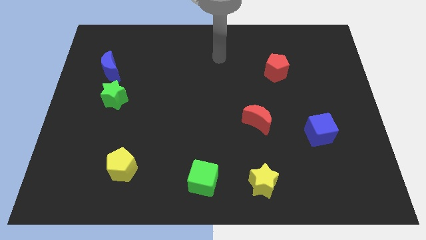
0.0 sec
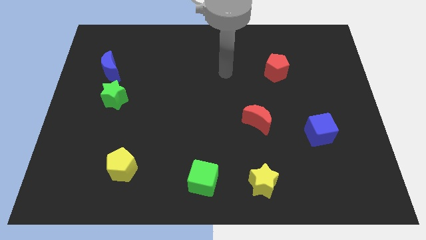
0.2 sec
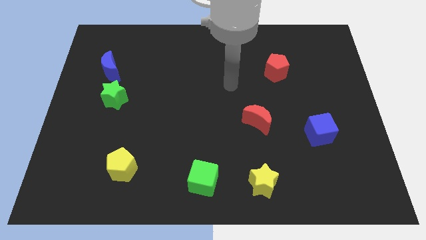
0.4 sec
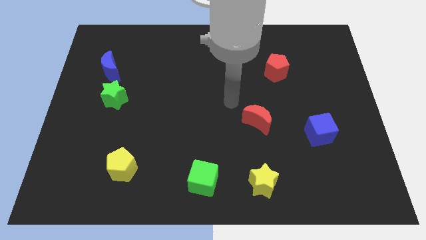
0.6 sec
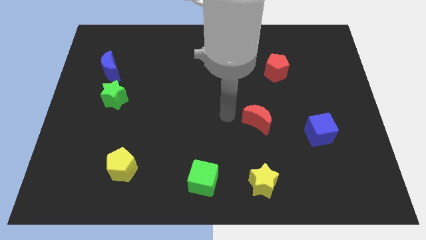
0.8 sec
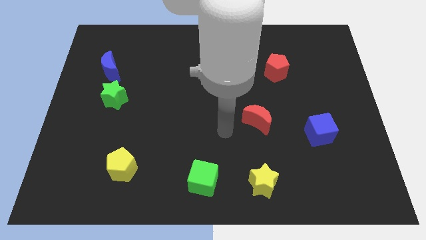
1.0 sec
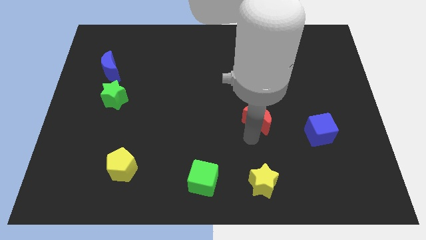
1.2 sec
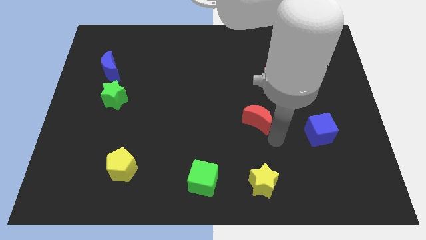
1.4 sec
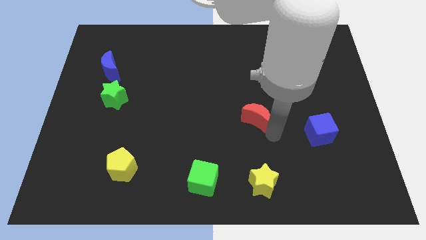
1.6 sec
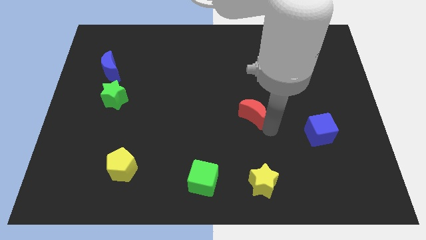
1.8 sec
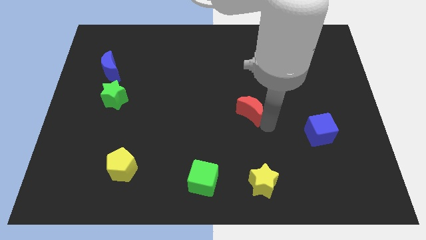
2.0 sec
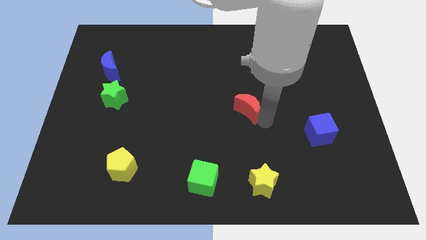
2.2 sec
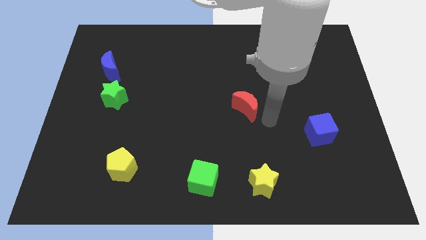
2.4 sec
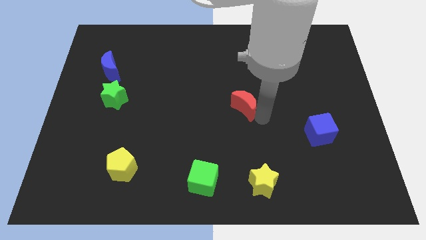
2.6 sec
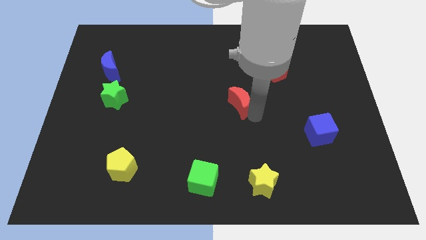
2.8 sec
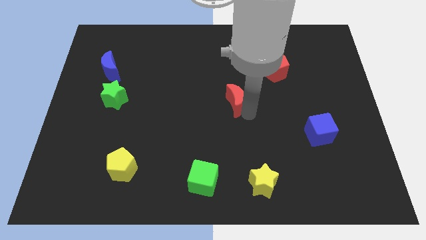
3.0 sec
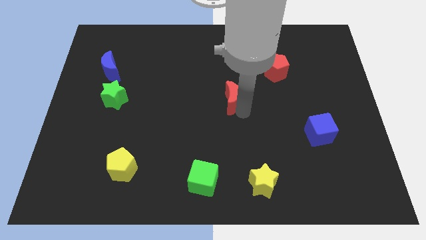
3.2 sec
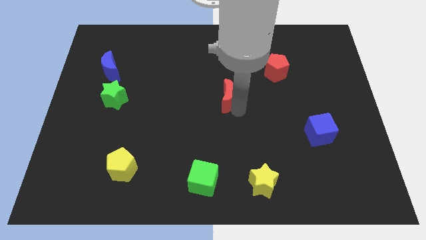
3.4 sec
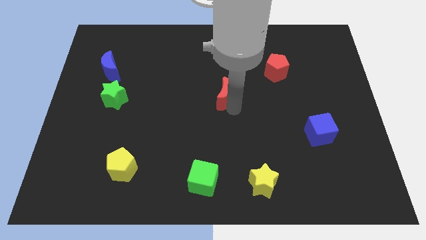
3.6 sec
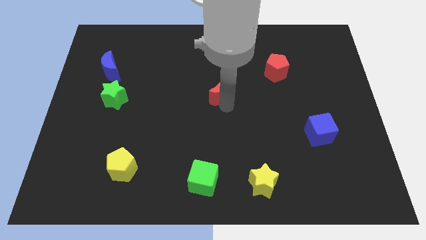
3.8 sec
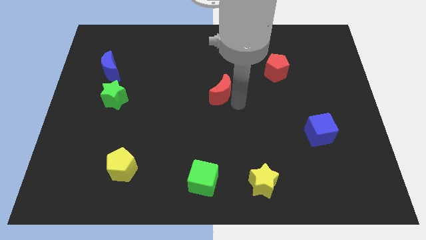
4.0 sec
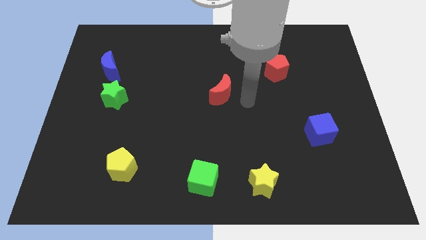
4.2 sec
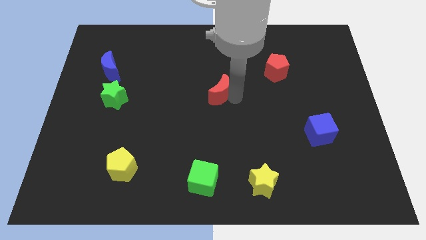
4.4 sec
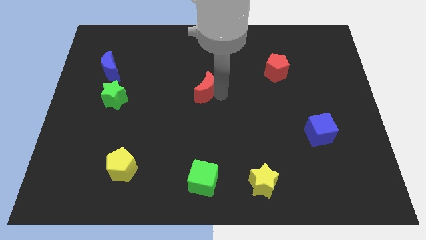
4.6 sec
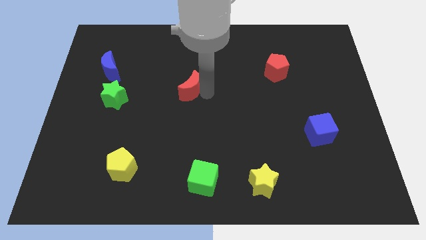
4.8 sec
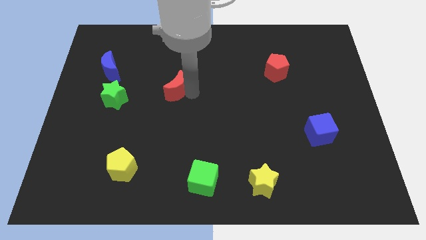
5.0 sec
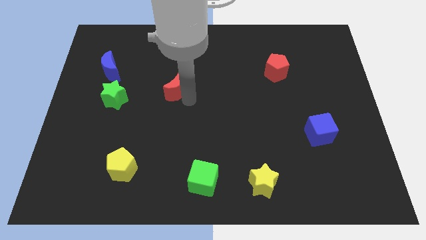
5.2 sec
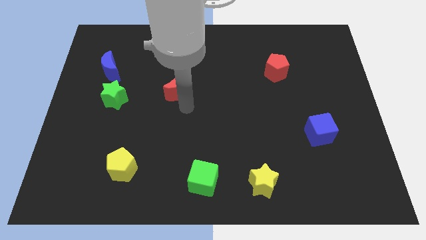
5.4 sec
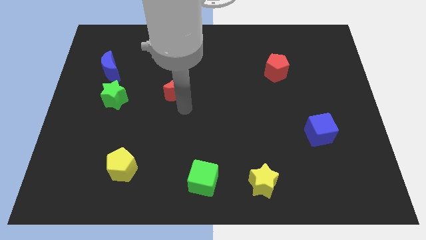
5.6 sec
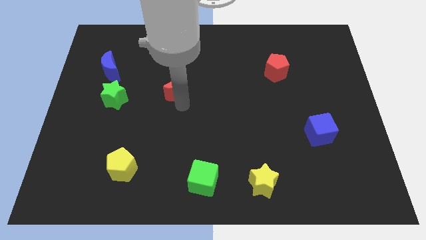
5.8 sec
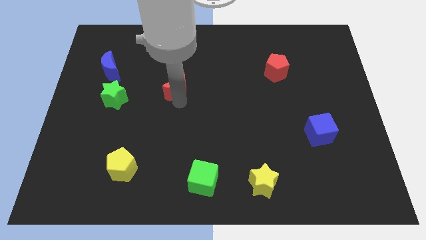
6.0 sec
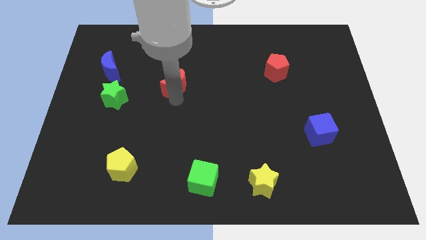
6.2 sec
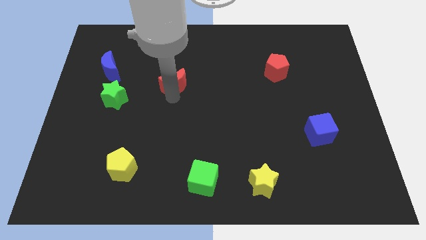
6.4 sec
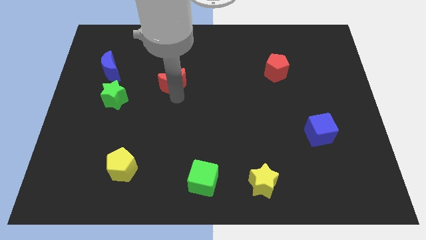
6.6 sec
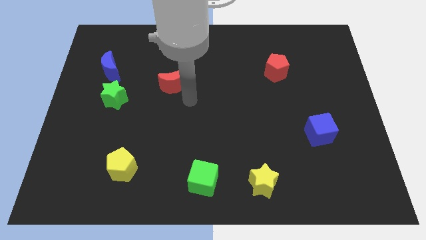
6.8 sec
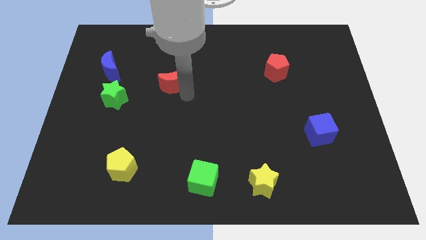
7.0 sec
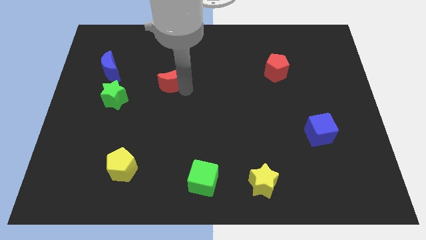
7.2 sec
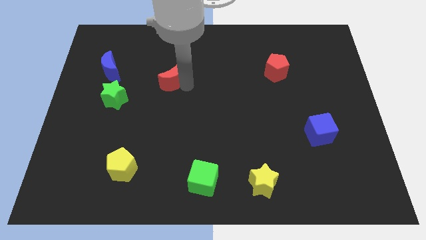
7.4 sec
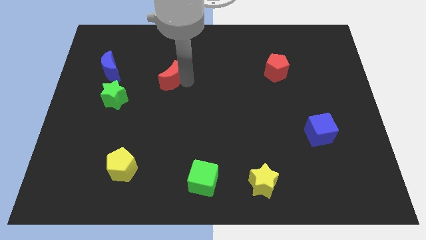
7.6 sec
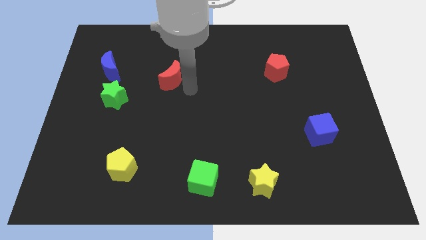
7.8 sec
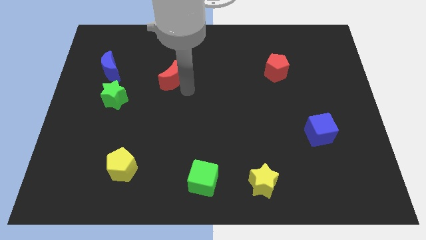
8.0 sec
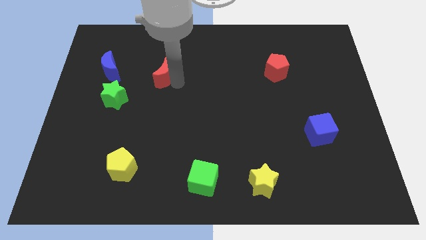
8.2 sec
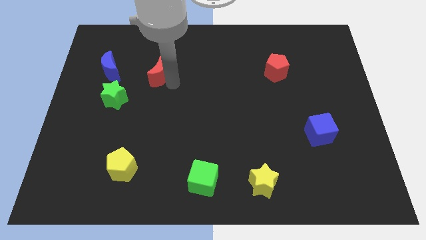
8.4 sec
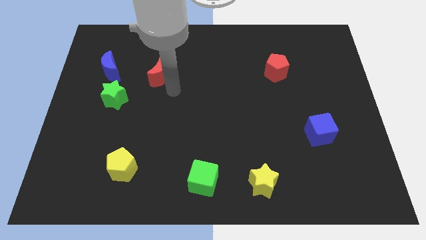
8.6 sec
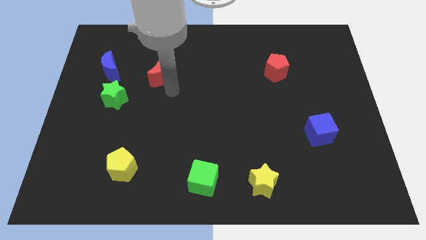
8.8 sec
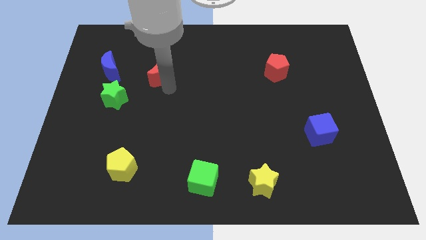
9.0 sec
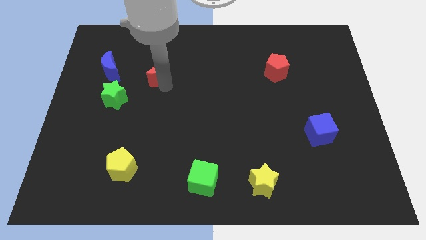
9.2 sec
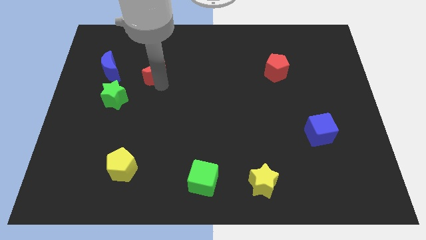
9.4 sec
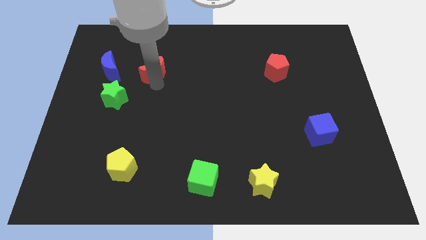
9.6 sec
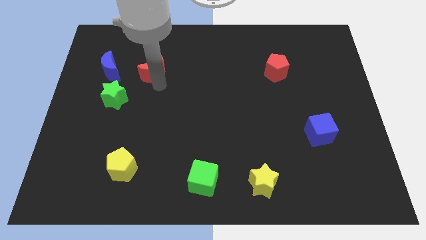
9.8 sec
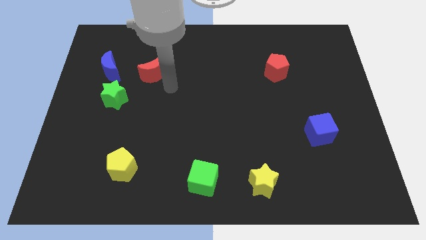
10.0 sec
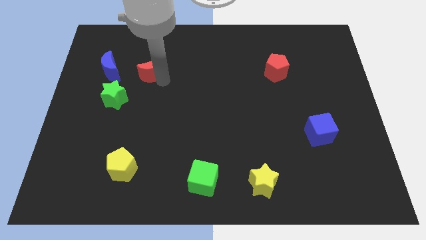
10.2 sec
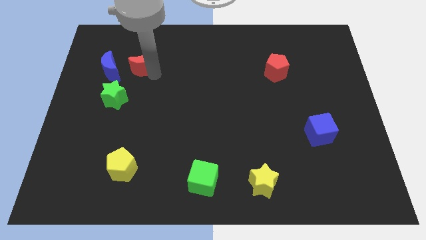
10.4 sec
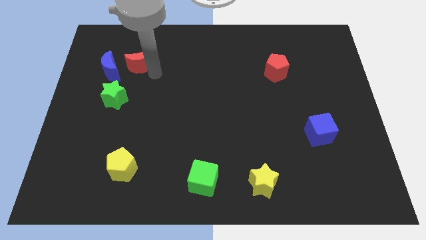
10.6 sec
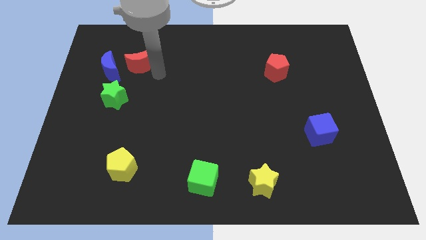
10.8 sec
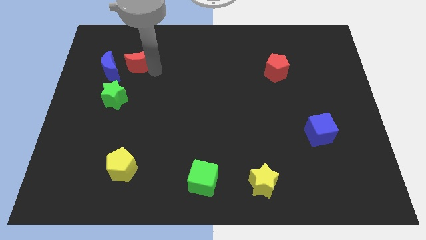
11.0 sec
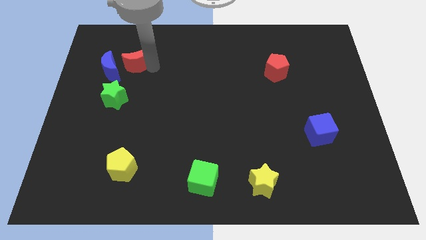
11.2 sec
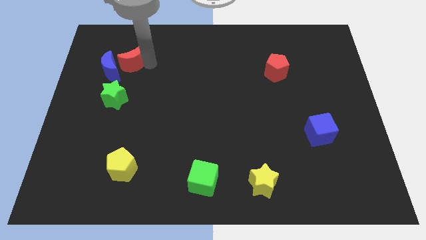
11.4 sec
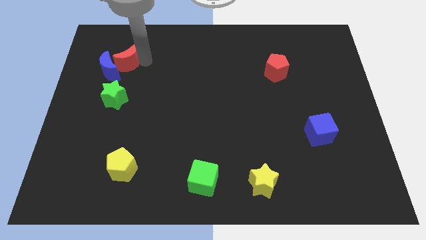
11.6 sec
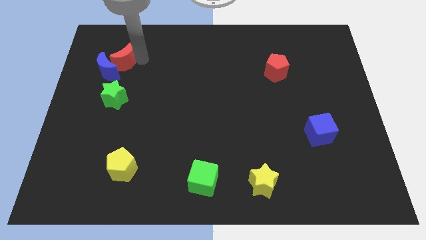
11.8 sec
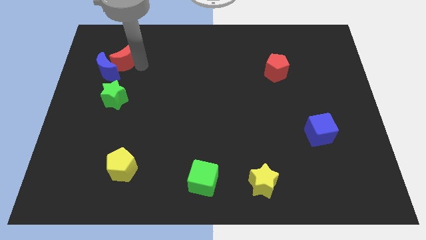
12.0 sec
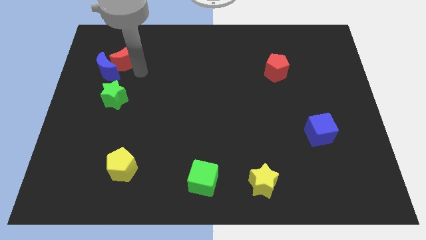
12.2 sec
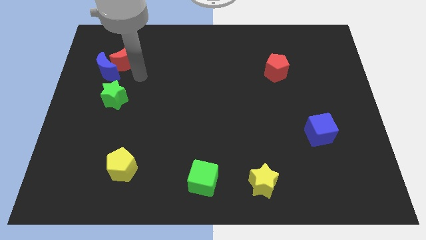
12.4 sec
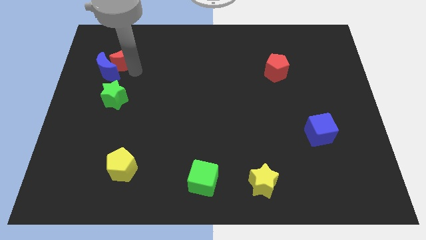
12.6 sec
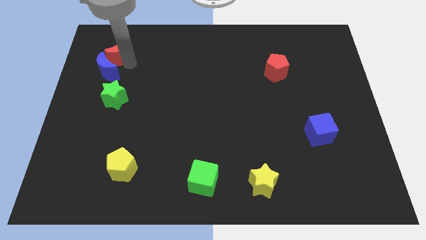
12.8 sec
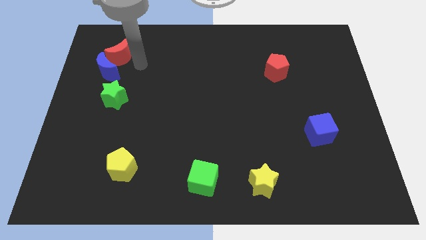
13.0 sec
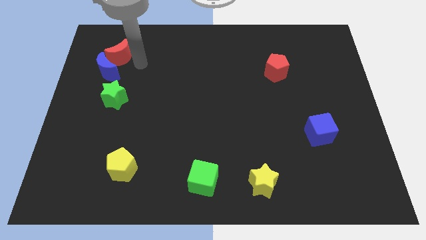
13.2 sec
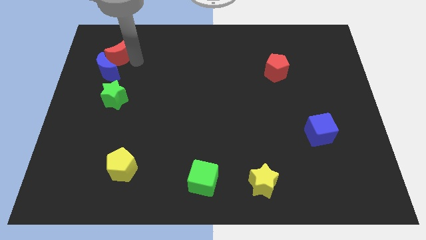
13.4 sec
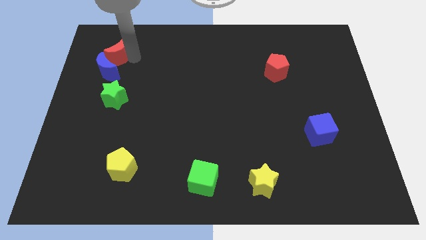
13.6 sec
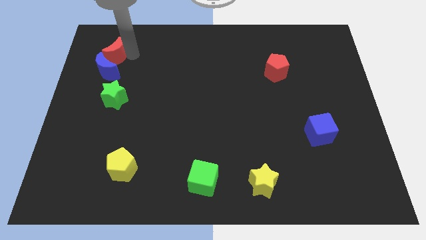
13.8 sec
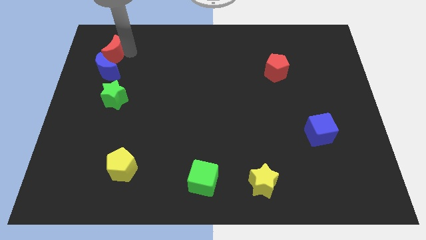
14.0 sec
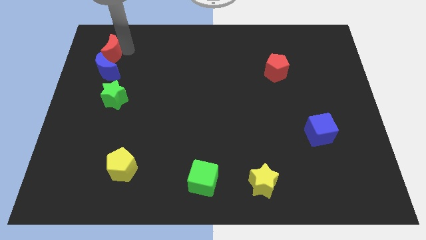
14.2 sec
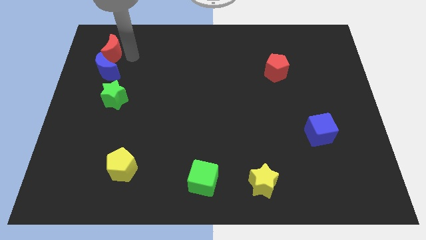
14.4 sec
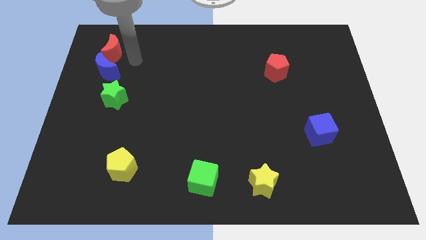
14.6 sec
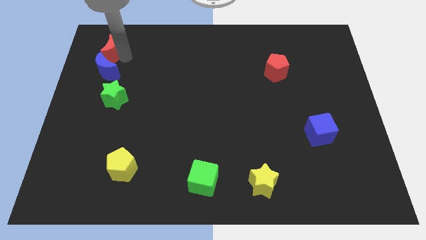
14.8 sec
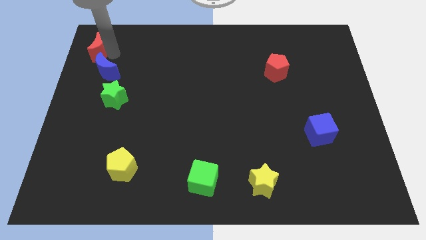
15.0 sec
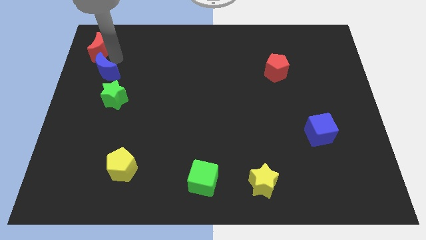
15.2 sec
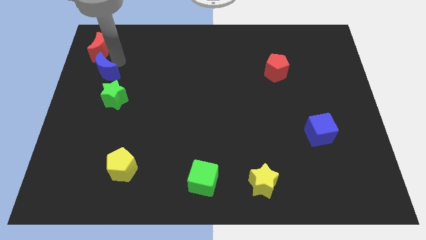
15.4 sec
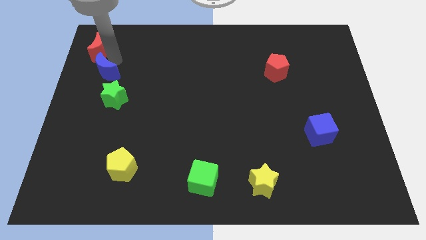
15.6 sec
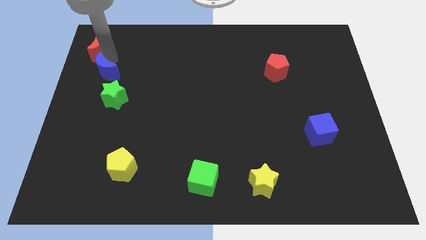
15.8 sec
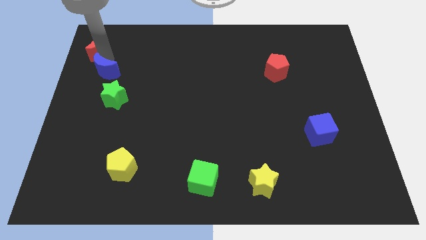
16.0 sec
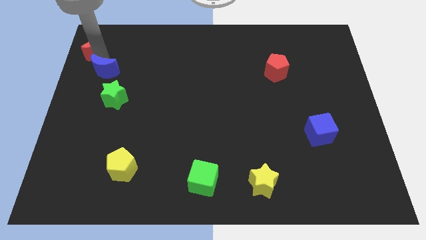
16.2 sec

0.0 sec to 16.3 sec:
put the red moon to the upper left corner
